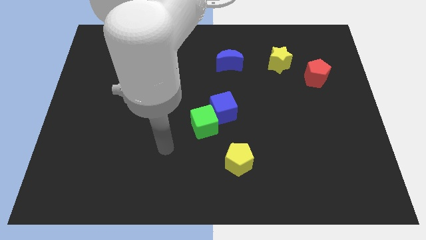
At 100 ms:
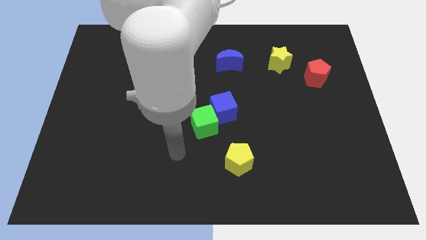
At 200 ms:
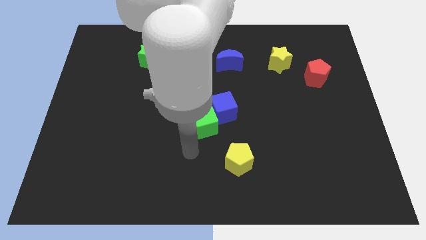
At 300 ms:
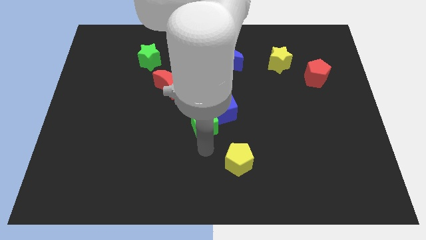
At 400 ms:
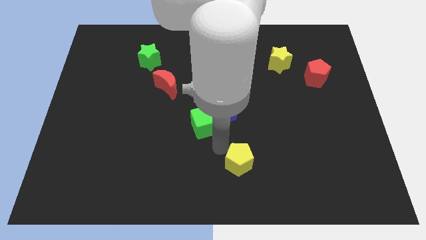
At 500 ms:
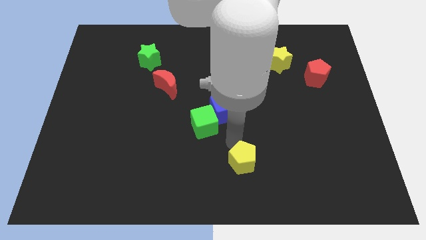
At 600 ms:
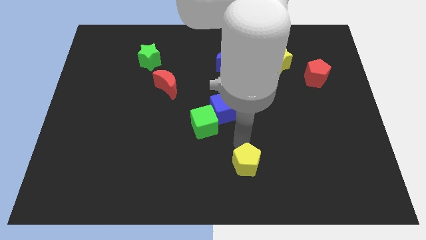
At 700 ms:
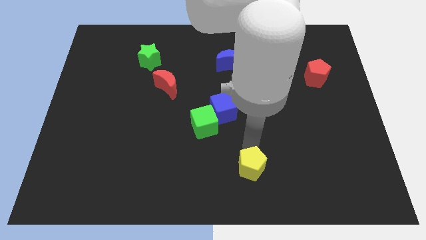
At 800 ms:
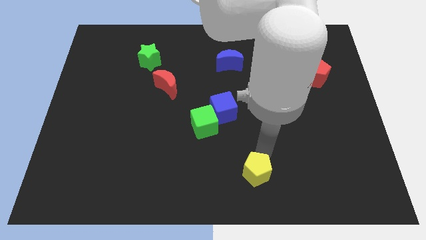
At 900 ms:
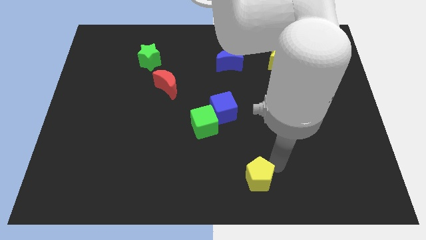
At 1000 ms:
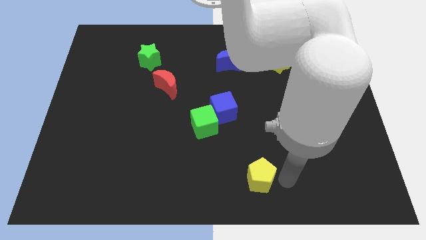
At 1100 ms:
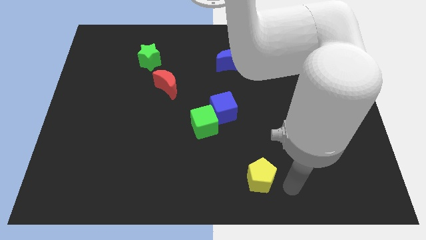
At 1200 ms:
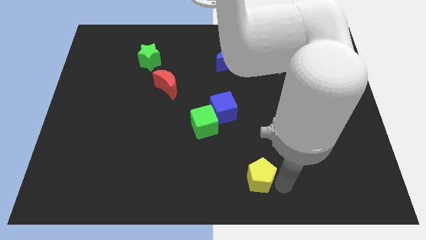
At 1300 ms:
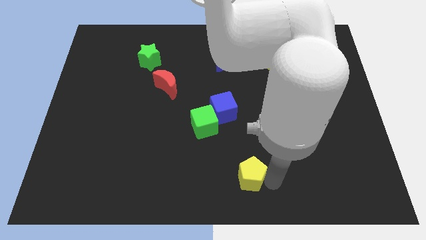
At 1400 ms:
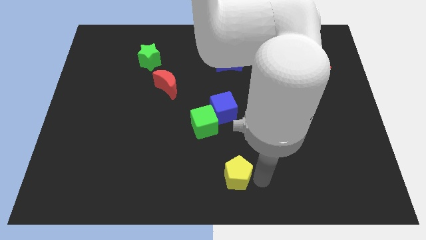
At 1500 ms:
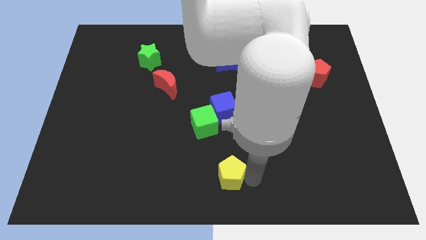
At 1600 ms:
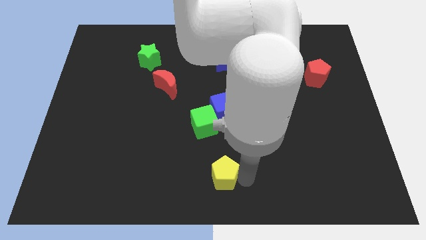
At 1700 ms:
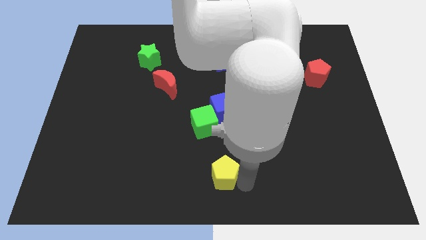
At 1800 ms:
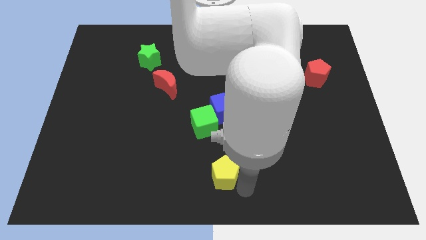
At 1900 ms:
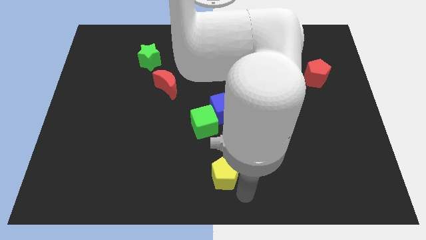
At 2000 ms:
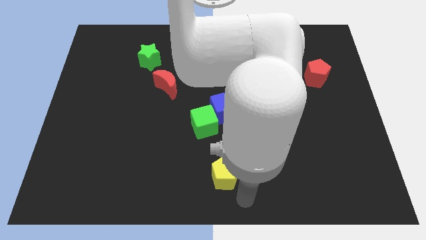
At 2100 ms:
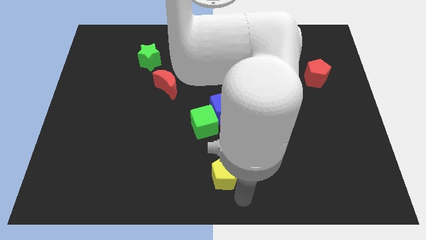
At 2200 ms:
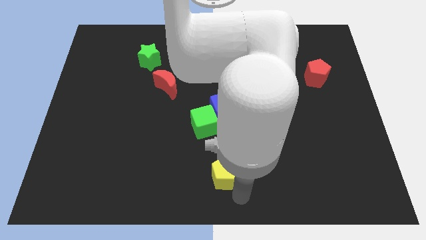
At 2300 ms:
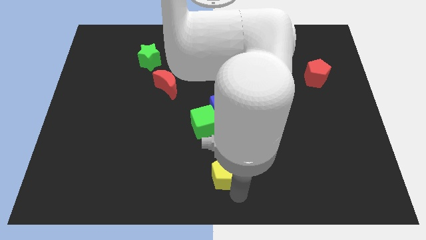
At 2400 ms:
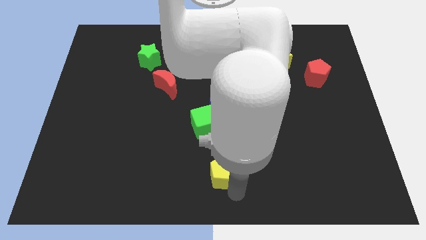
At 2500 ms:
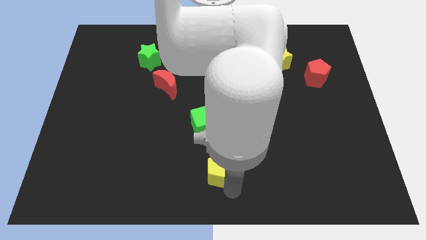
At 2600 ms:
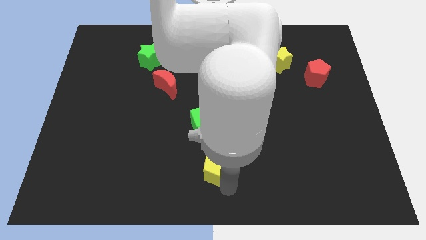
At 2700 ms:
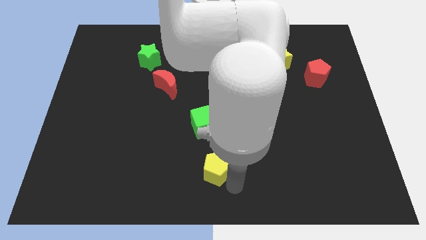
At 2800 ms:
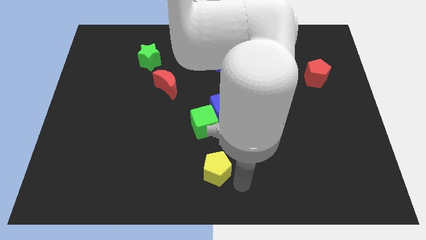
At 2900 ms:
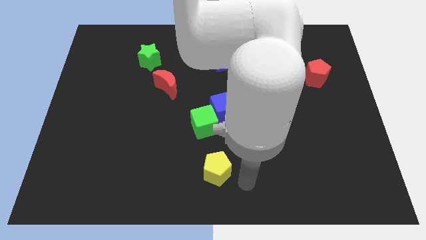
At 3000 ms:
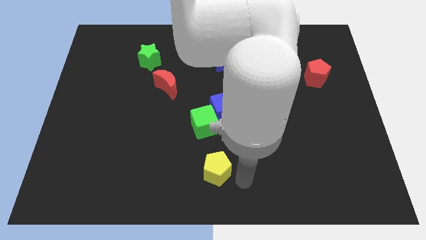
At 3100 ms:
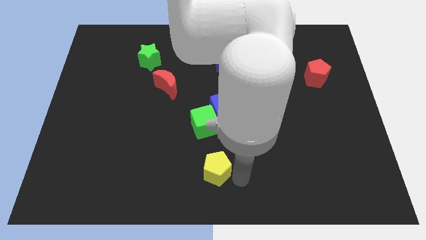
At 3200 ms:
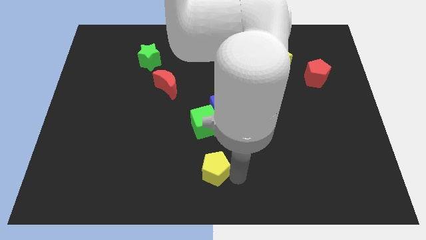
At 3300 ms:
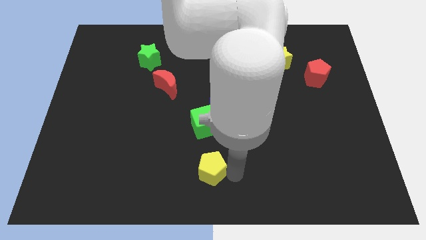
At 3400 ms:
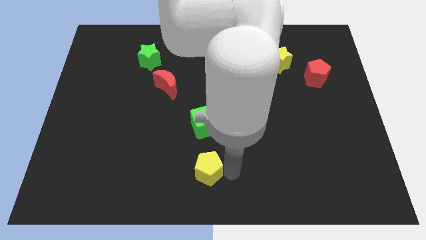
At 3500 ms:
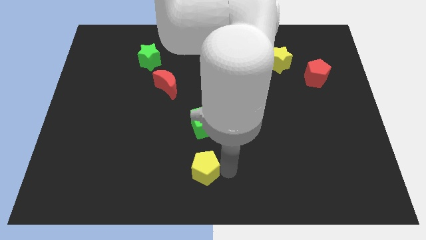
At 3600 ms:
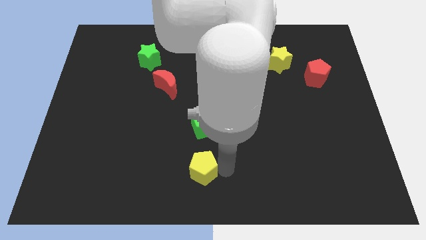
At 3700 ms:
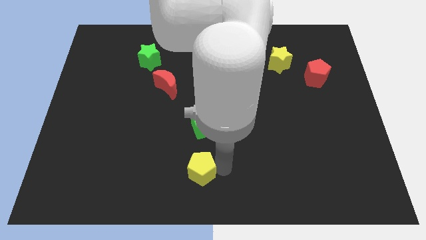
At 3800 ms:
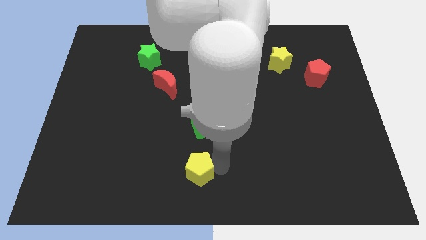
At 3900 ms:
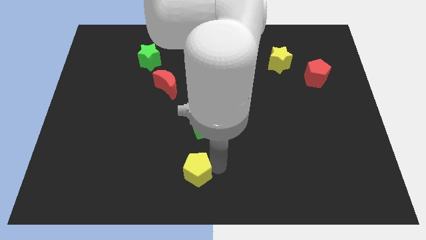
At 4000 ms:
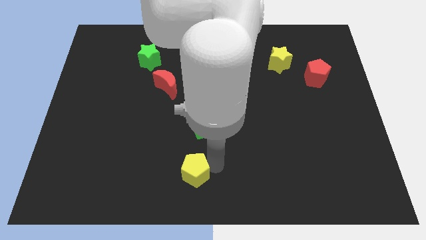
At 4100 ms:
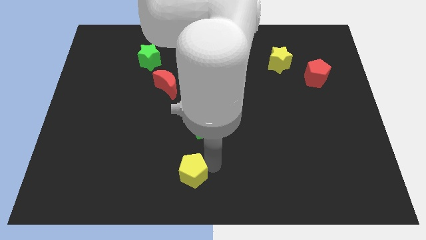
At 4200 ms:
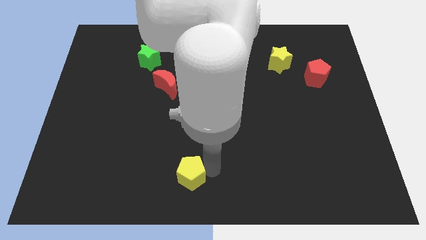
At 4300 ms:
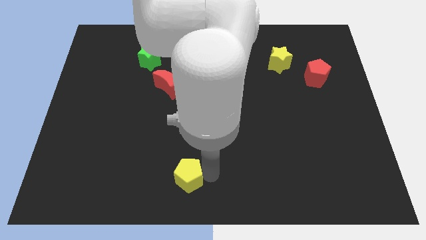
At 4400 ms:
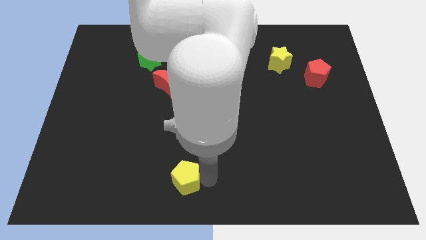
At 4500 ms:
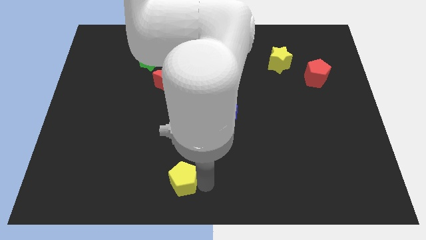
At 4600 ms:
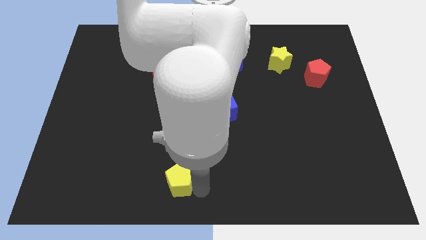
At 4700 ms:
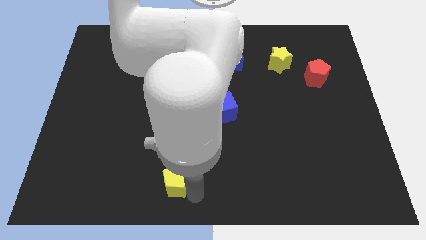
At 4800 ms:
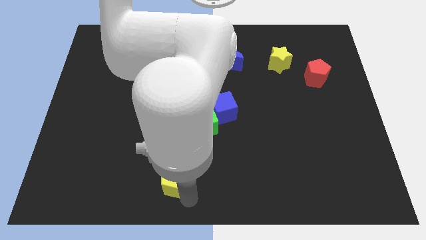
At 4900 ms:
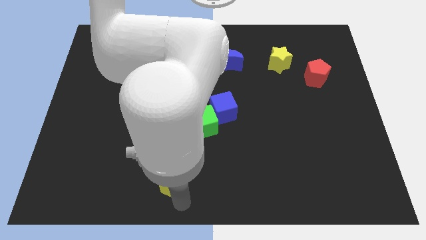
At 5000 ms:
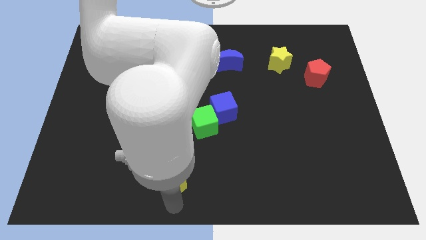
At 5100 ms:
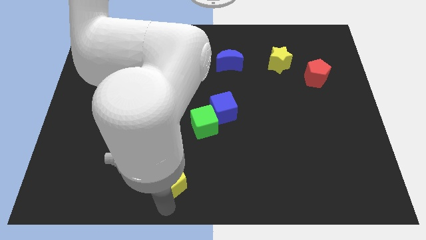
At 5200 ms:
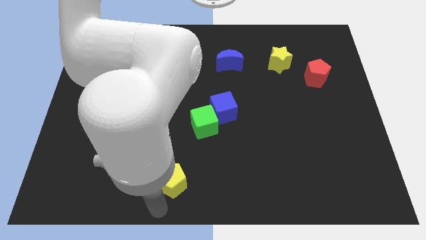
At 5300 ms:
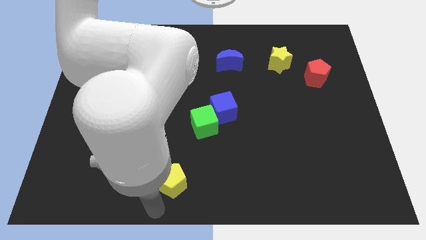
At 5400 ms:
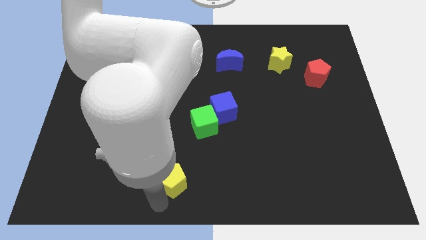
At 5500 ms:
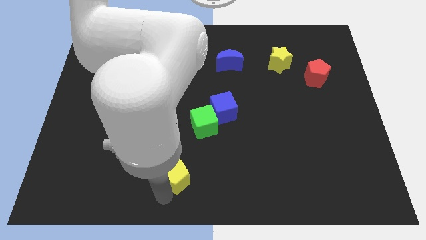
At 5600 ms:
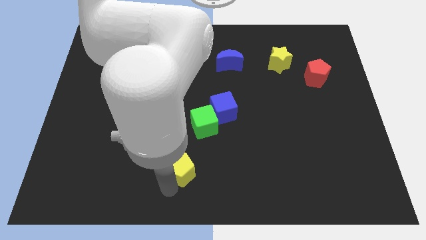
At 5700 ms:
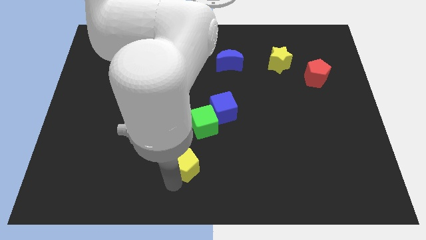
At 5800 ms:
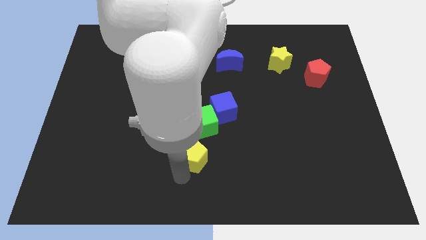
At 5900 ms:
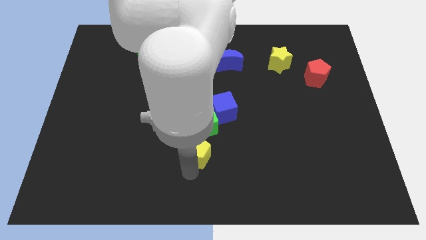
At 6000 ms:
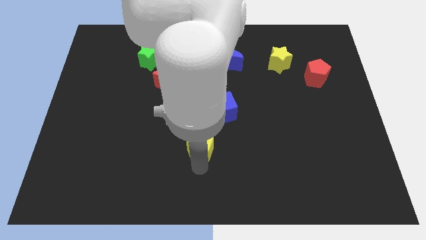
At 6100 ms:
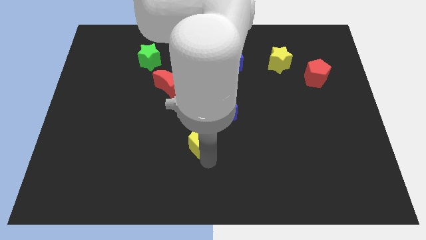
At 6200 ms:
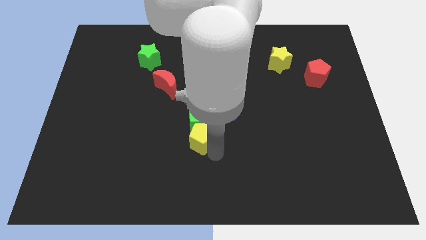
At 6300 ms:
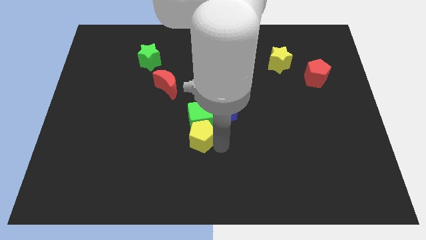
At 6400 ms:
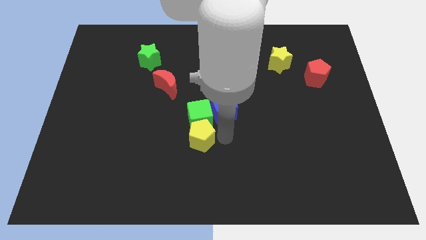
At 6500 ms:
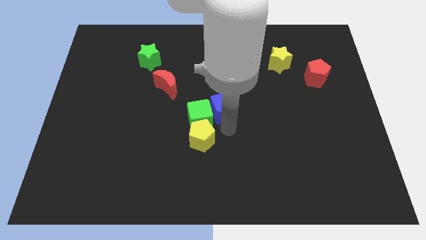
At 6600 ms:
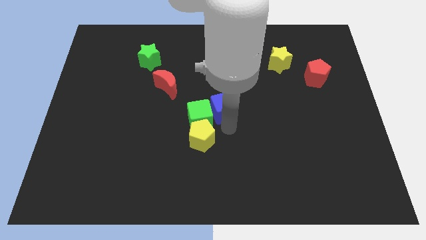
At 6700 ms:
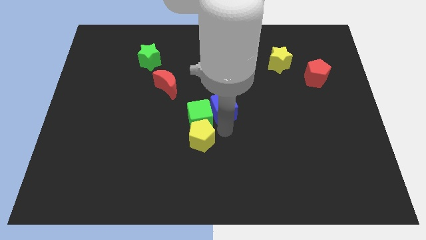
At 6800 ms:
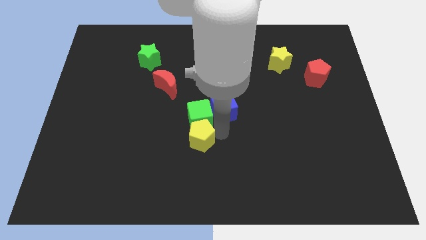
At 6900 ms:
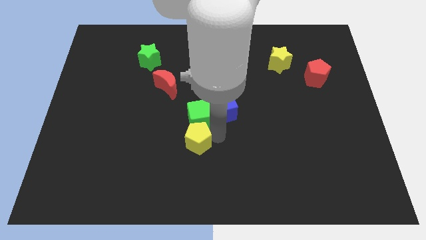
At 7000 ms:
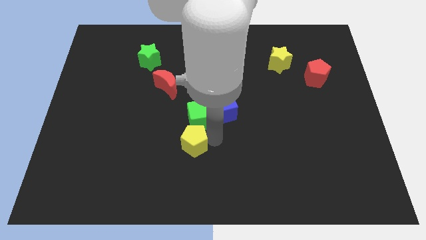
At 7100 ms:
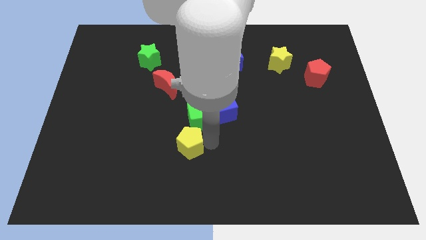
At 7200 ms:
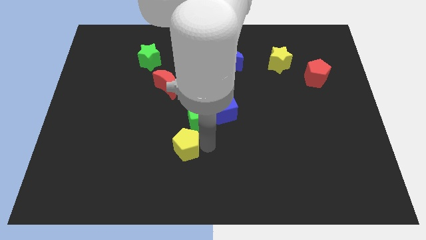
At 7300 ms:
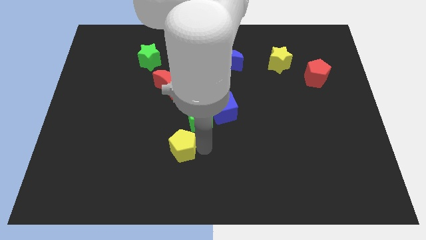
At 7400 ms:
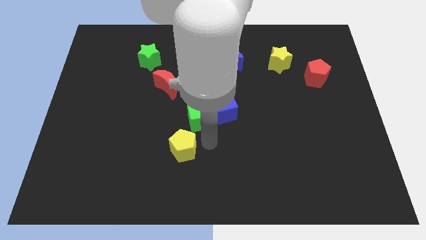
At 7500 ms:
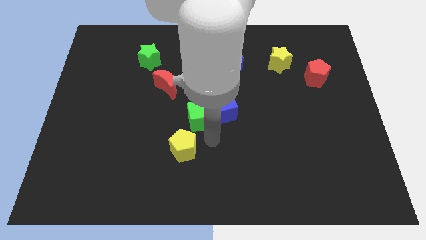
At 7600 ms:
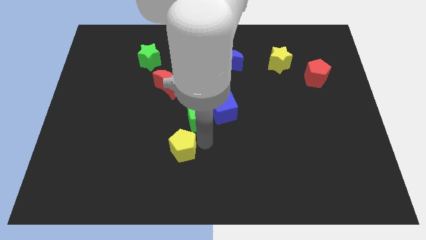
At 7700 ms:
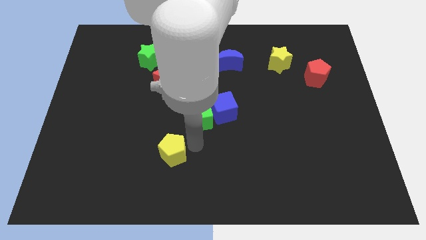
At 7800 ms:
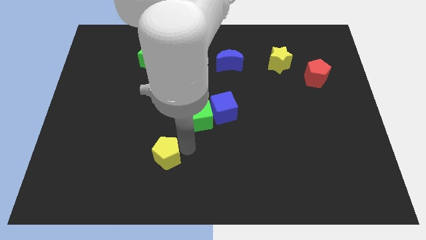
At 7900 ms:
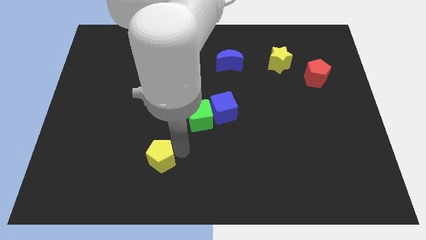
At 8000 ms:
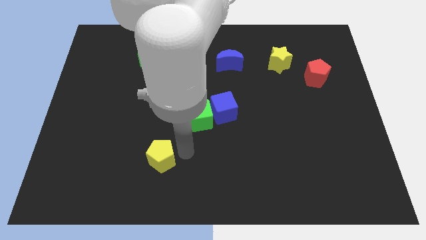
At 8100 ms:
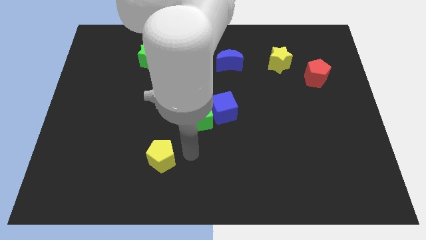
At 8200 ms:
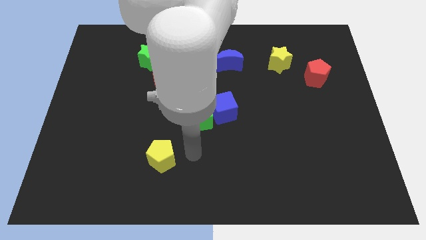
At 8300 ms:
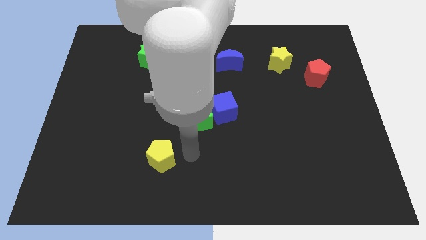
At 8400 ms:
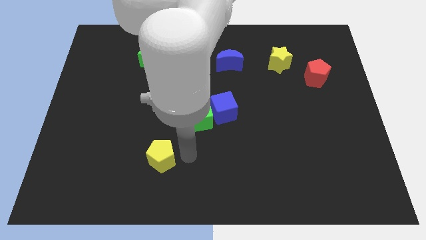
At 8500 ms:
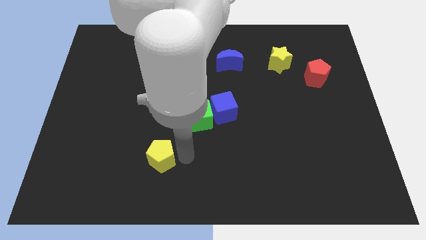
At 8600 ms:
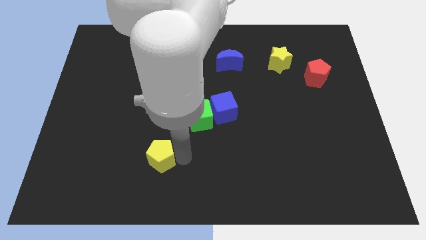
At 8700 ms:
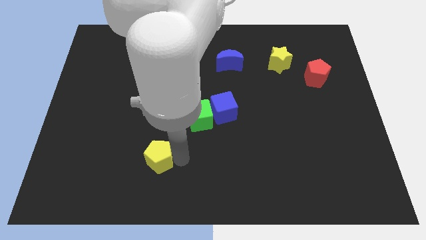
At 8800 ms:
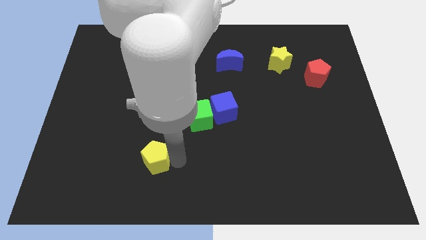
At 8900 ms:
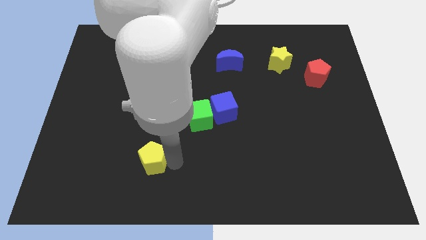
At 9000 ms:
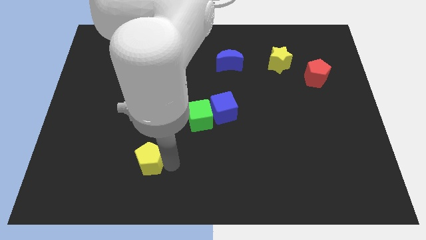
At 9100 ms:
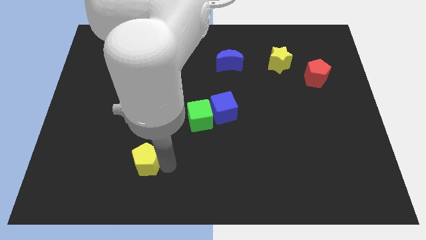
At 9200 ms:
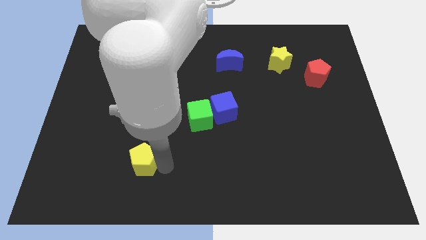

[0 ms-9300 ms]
slide the yellow pentagon left
